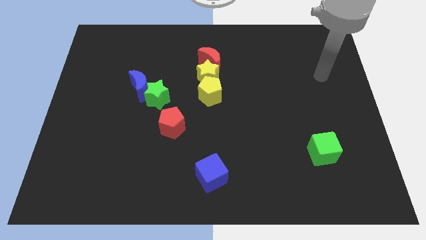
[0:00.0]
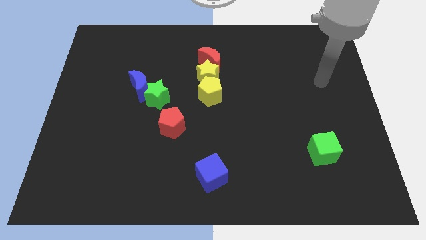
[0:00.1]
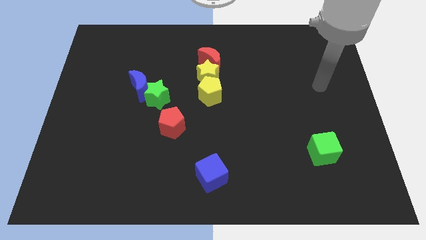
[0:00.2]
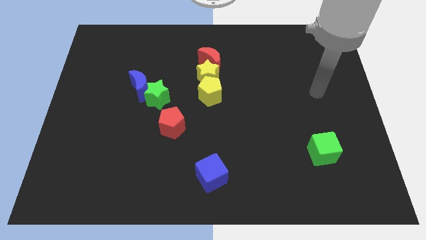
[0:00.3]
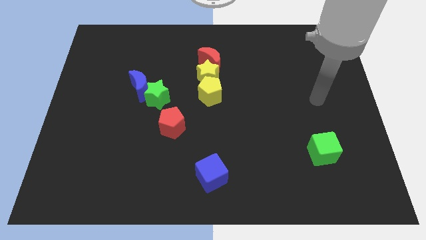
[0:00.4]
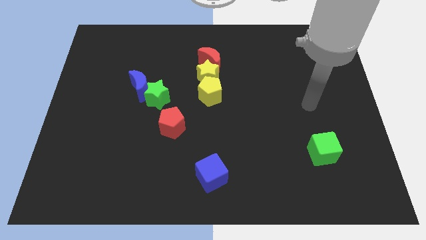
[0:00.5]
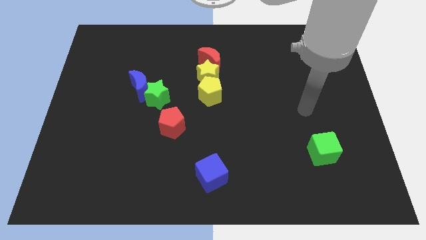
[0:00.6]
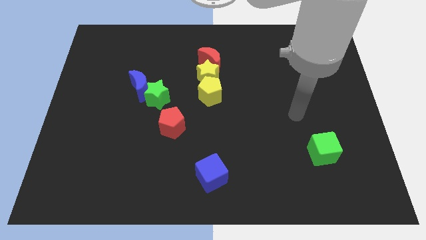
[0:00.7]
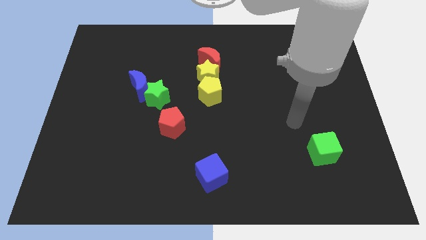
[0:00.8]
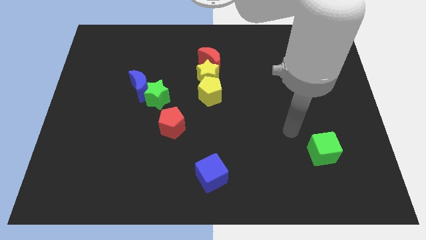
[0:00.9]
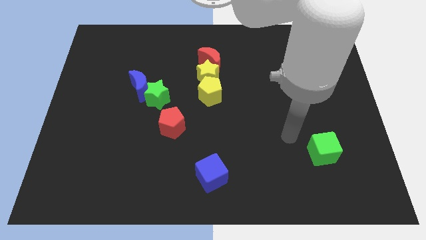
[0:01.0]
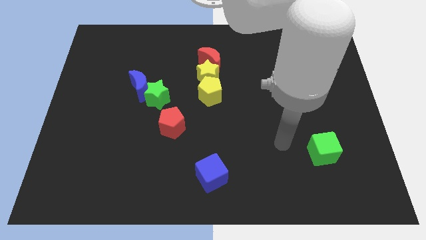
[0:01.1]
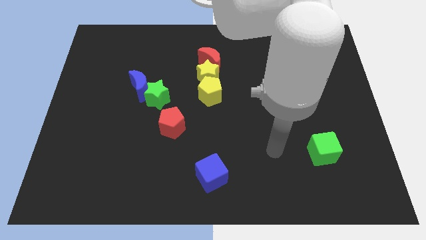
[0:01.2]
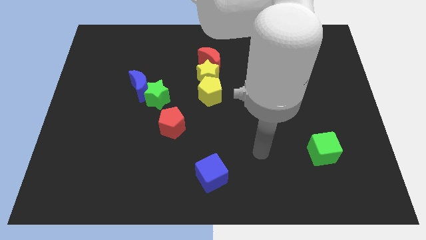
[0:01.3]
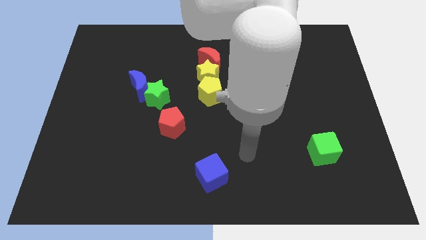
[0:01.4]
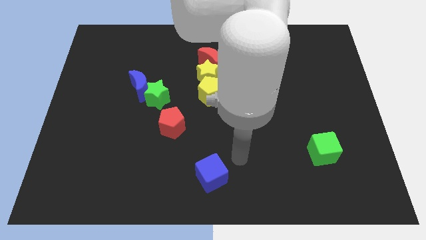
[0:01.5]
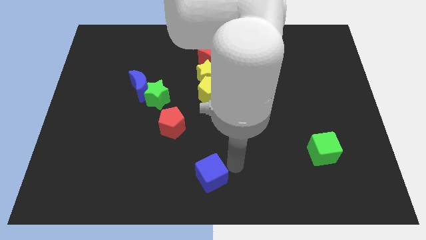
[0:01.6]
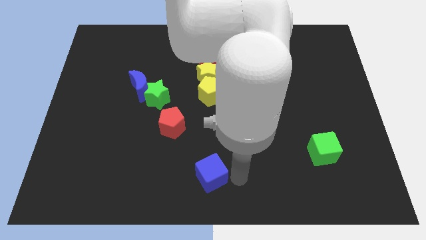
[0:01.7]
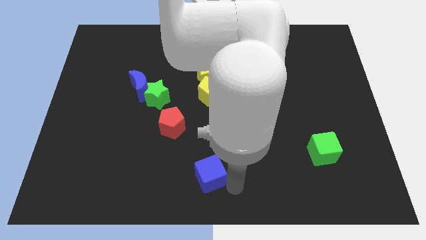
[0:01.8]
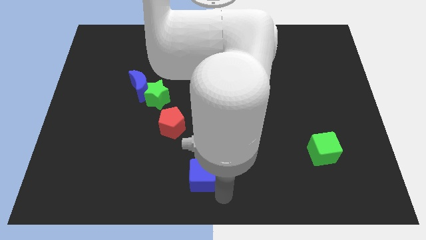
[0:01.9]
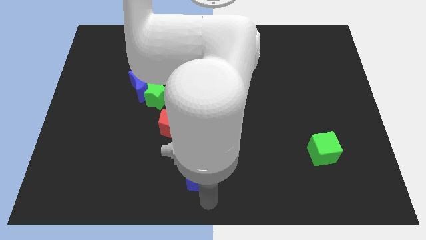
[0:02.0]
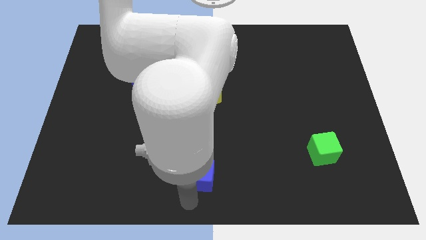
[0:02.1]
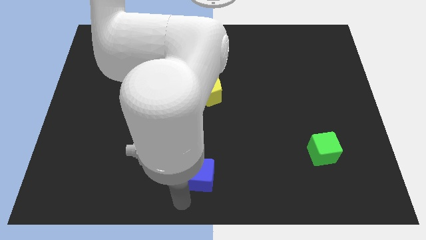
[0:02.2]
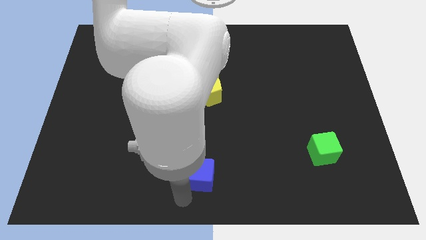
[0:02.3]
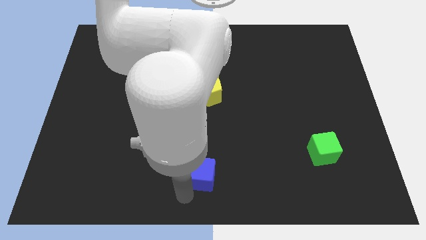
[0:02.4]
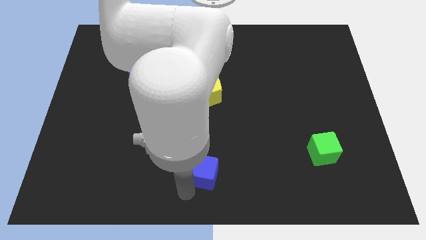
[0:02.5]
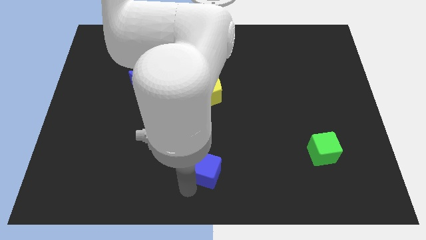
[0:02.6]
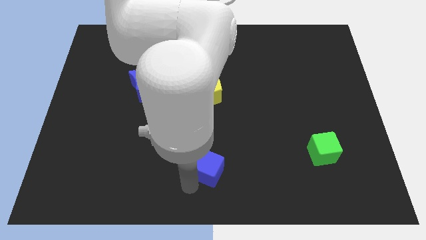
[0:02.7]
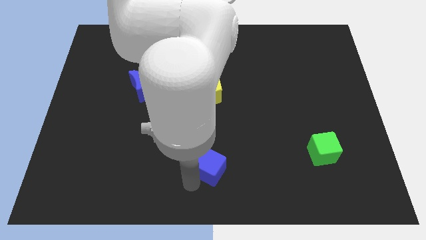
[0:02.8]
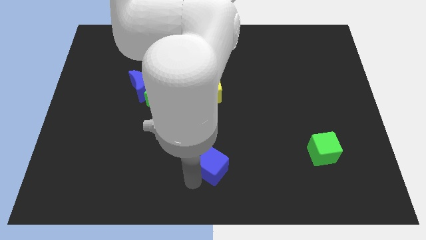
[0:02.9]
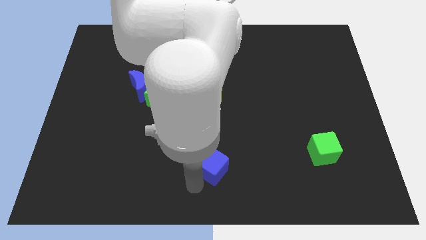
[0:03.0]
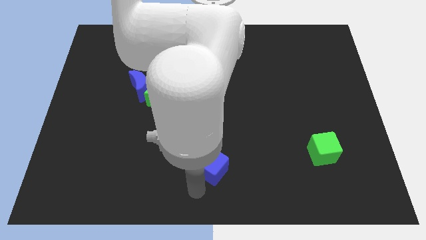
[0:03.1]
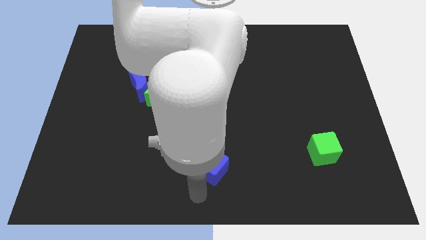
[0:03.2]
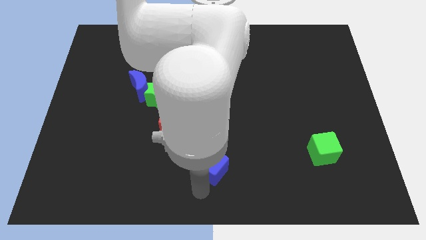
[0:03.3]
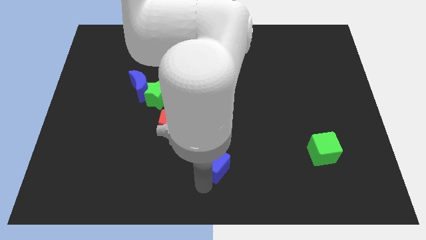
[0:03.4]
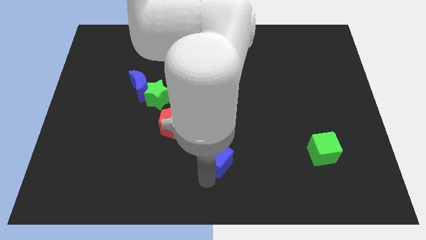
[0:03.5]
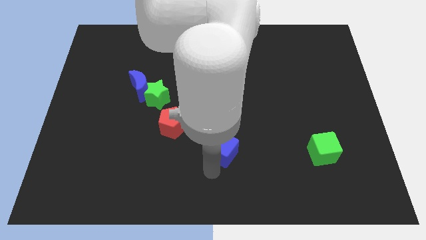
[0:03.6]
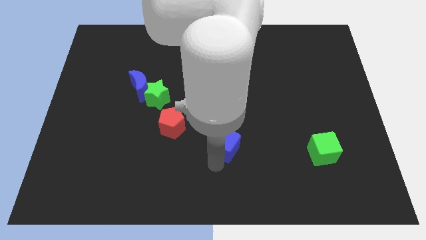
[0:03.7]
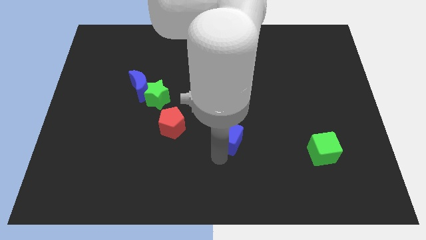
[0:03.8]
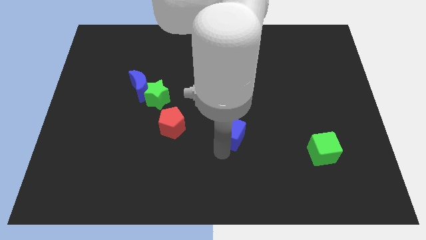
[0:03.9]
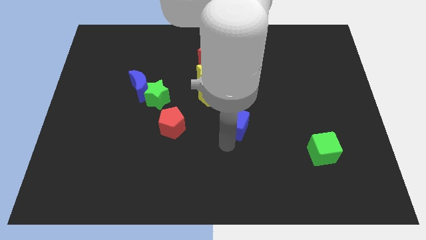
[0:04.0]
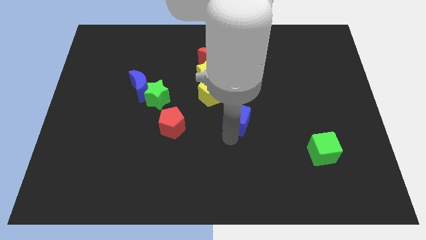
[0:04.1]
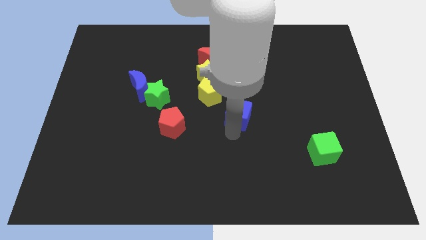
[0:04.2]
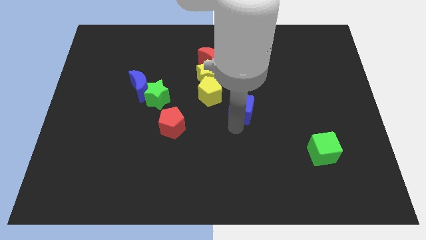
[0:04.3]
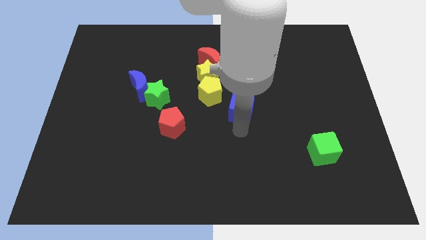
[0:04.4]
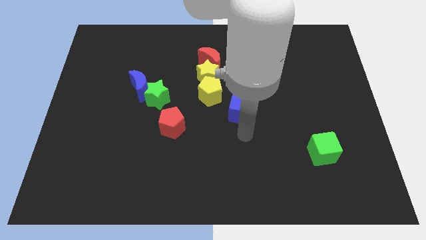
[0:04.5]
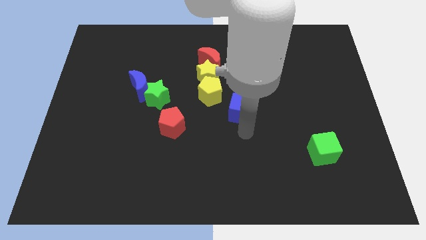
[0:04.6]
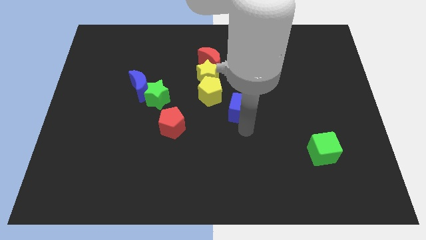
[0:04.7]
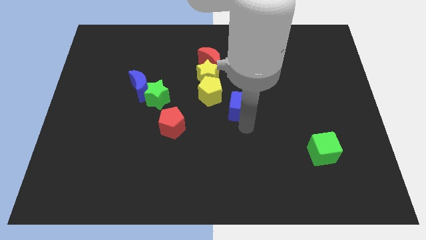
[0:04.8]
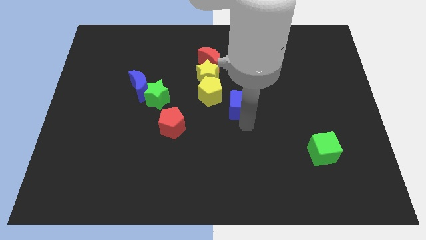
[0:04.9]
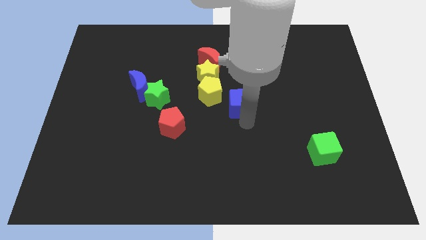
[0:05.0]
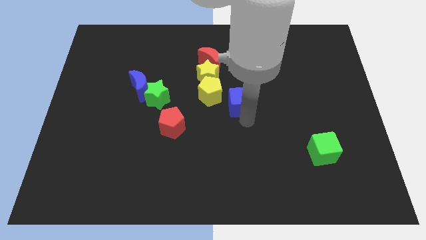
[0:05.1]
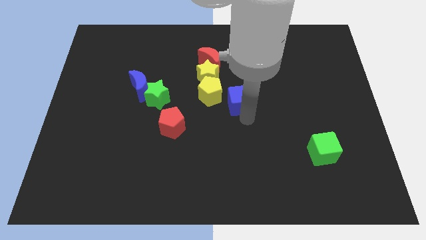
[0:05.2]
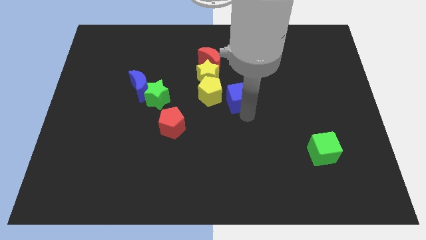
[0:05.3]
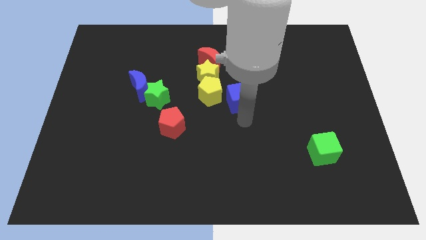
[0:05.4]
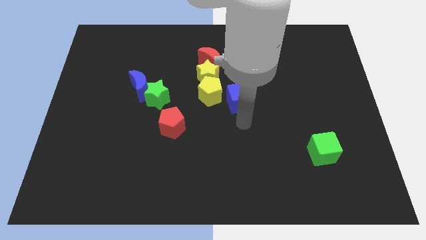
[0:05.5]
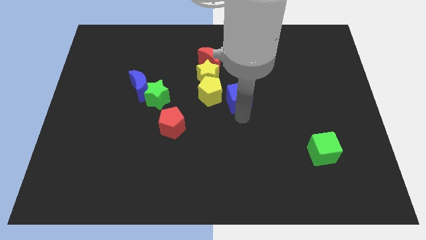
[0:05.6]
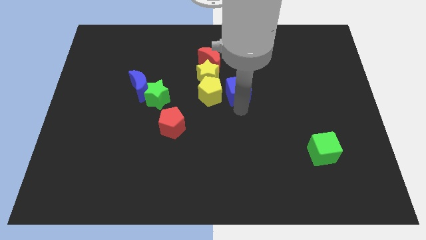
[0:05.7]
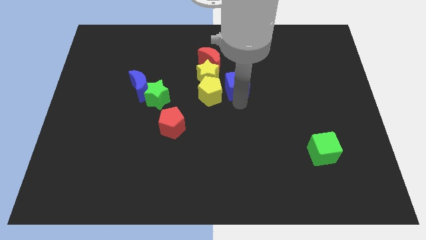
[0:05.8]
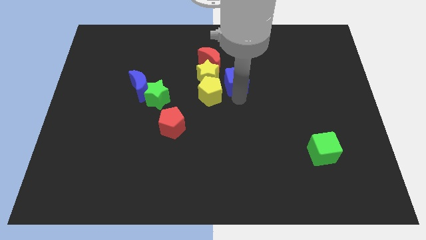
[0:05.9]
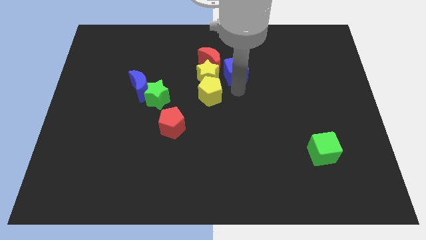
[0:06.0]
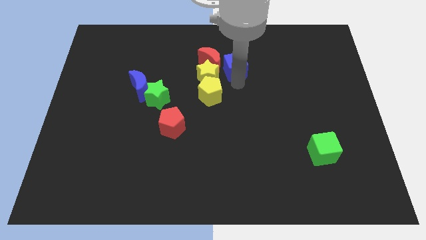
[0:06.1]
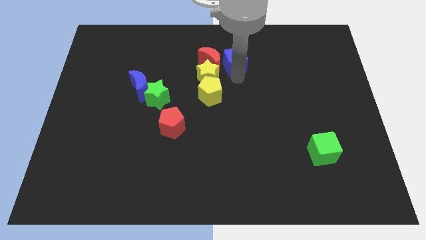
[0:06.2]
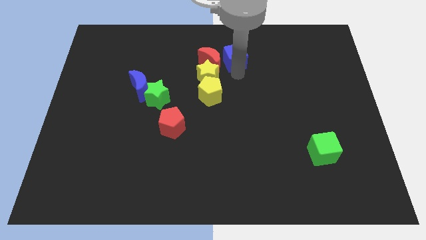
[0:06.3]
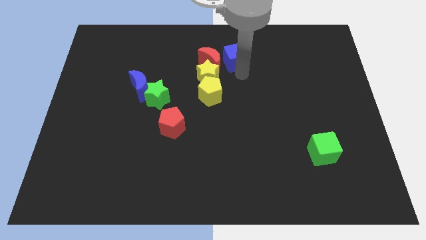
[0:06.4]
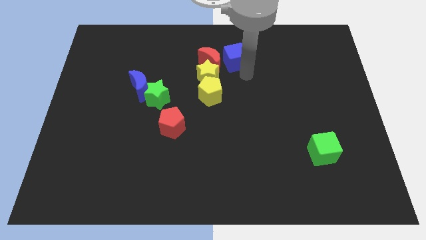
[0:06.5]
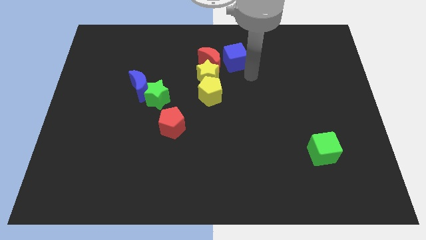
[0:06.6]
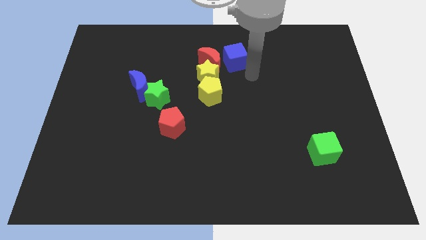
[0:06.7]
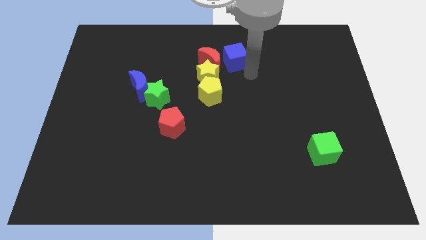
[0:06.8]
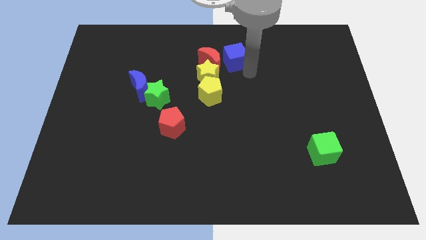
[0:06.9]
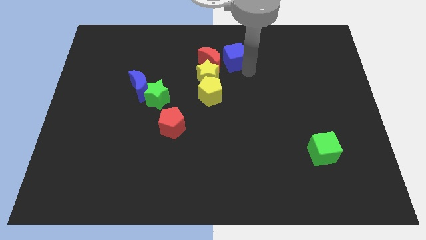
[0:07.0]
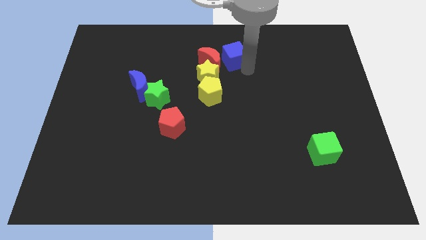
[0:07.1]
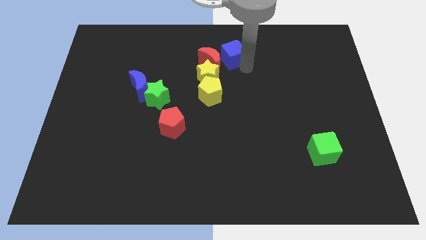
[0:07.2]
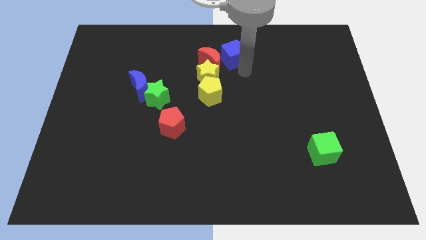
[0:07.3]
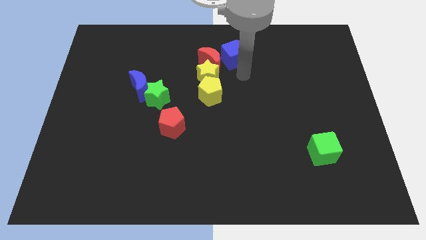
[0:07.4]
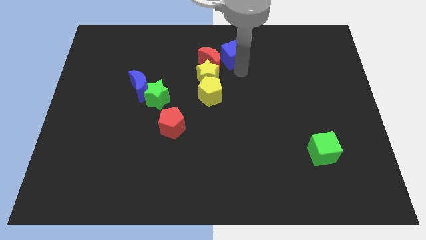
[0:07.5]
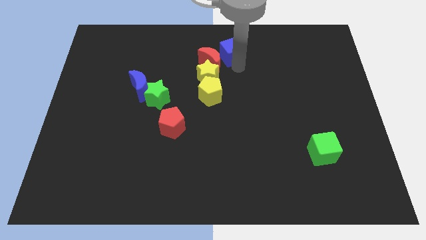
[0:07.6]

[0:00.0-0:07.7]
put the blue cube to the towards your base
